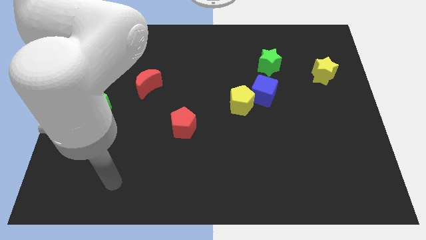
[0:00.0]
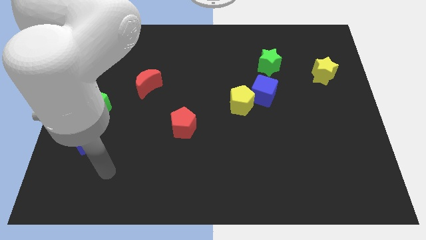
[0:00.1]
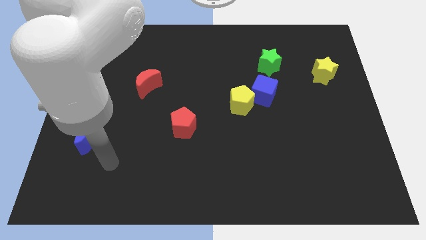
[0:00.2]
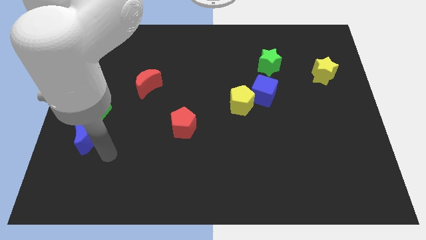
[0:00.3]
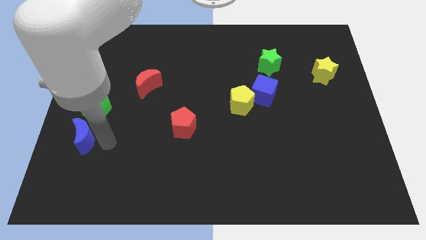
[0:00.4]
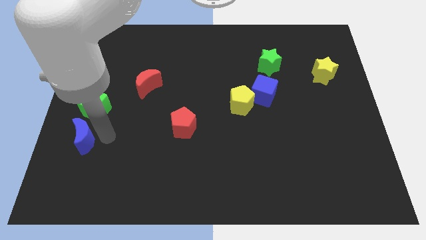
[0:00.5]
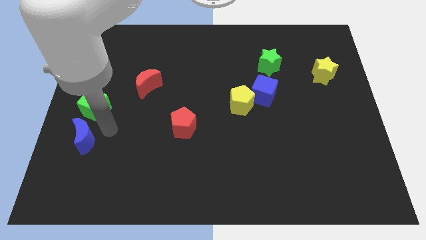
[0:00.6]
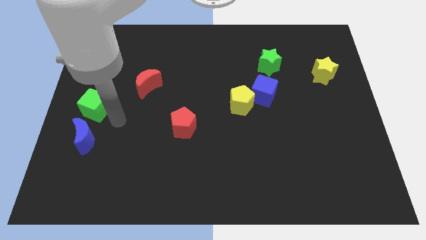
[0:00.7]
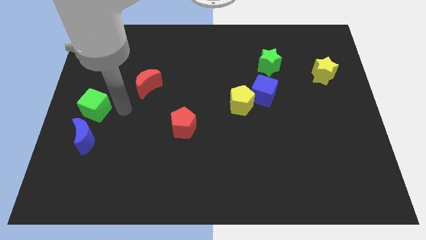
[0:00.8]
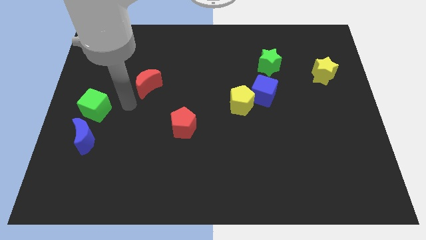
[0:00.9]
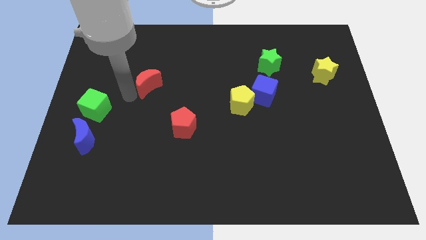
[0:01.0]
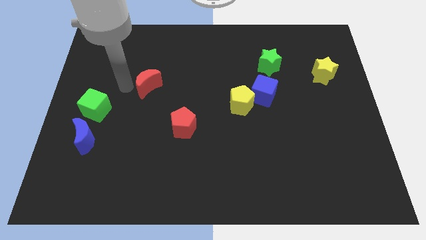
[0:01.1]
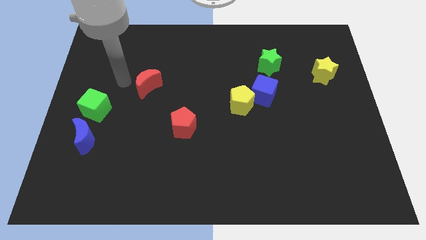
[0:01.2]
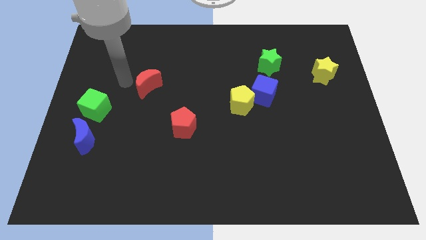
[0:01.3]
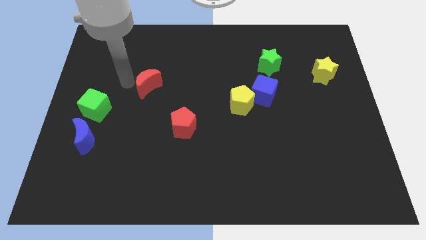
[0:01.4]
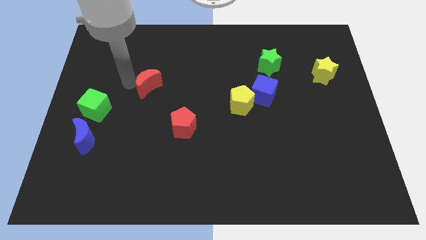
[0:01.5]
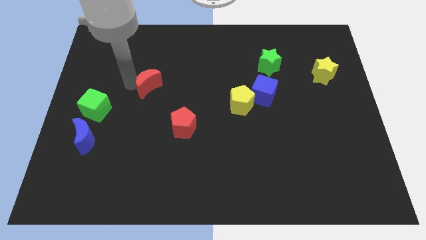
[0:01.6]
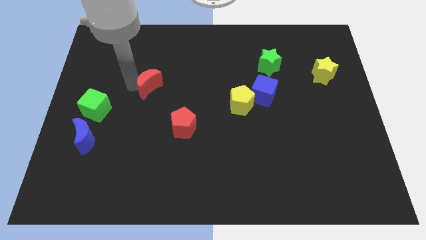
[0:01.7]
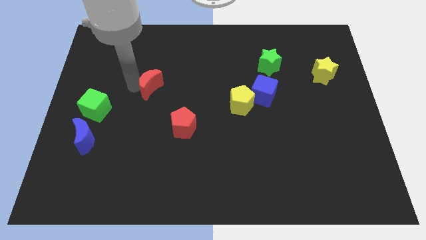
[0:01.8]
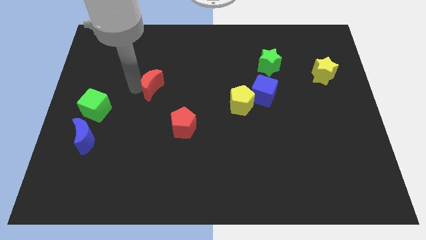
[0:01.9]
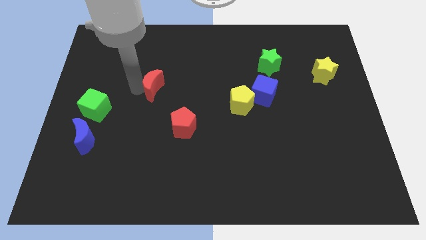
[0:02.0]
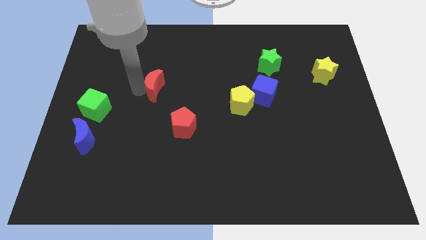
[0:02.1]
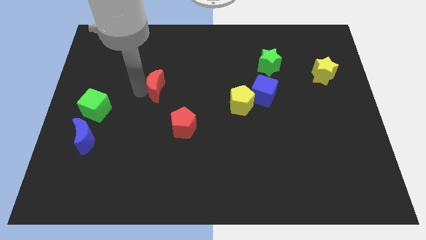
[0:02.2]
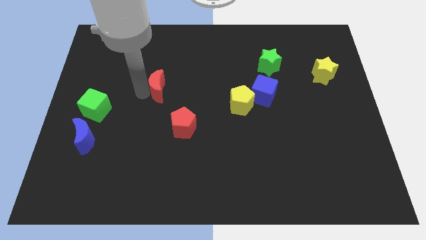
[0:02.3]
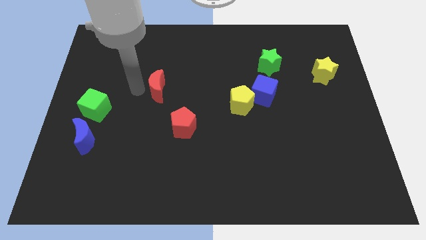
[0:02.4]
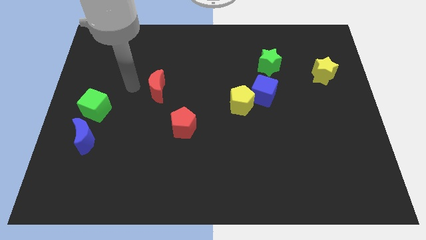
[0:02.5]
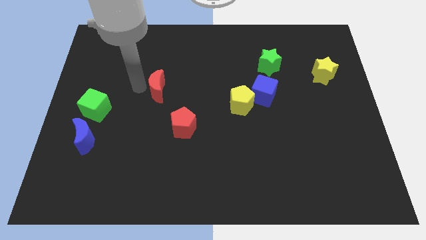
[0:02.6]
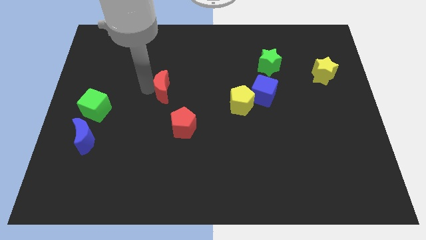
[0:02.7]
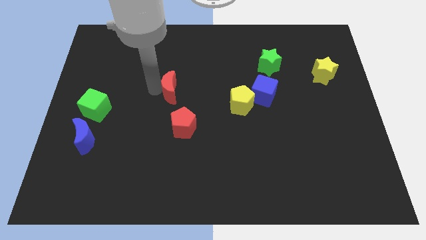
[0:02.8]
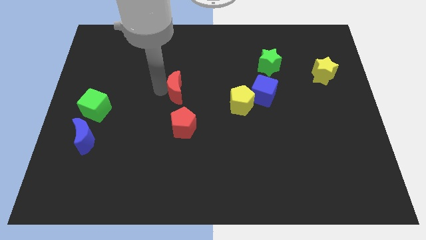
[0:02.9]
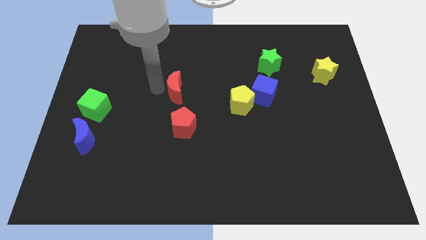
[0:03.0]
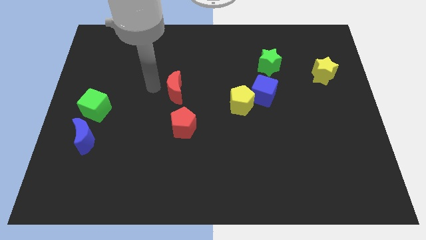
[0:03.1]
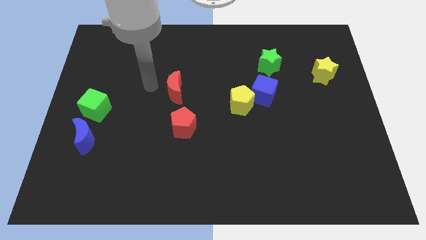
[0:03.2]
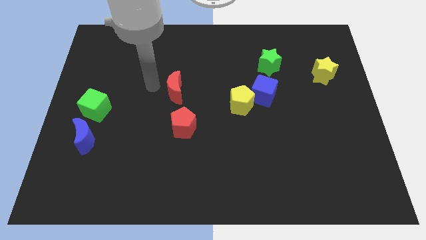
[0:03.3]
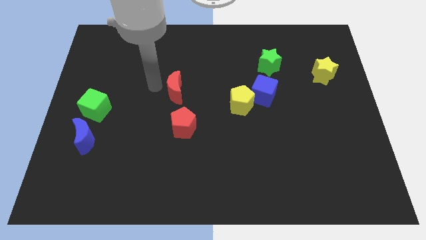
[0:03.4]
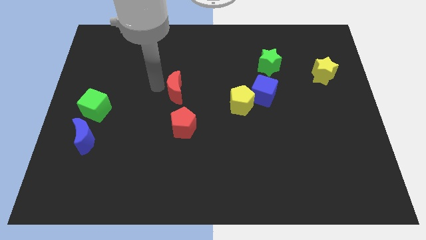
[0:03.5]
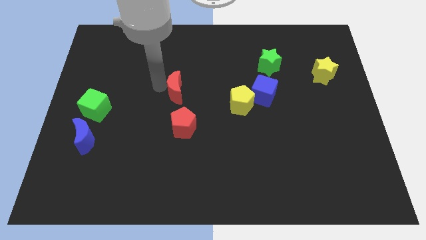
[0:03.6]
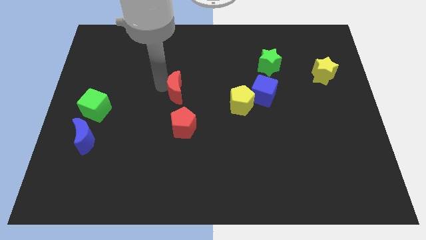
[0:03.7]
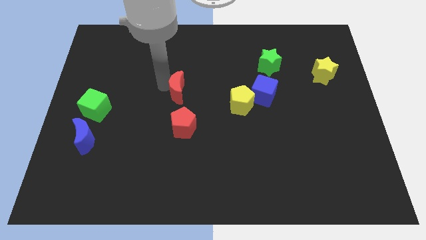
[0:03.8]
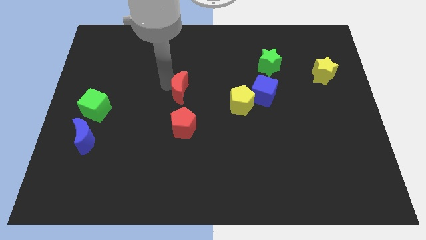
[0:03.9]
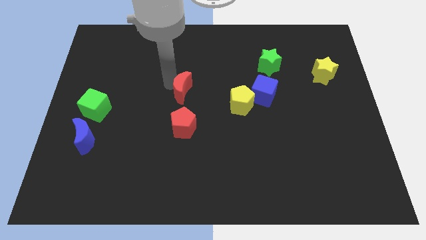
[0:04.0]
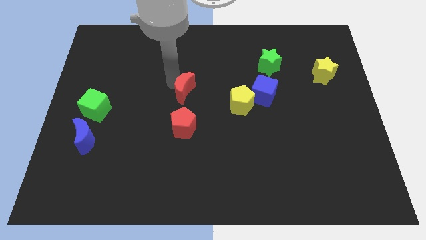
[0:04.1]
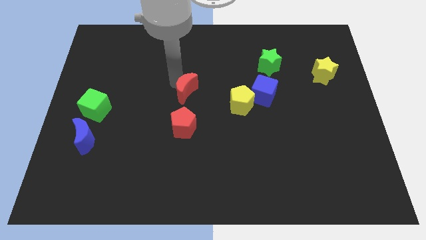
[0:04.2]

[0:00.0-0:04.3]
push the red moon somewhat downwards and to the right diagonally

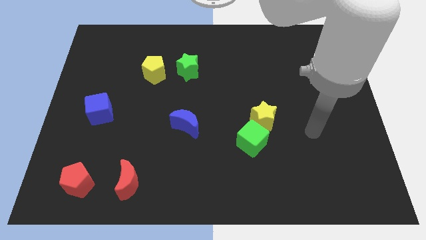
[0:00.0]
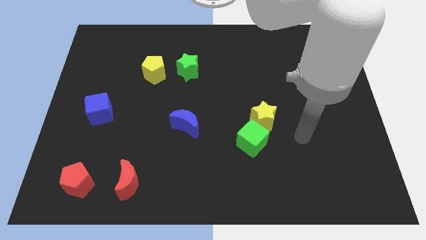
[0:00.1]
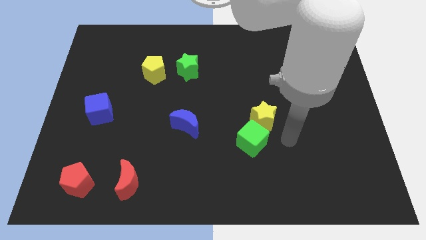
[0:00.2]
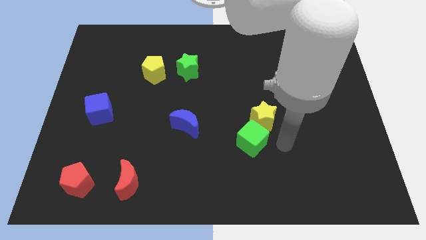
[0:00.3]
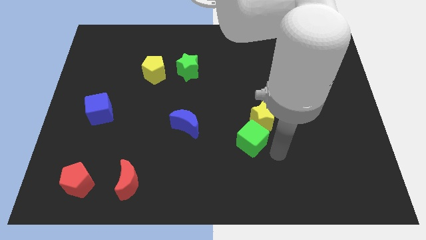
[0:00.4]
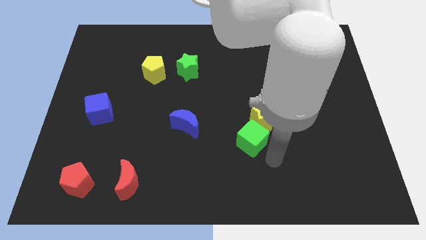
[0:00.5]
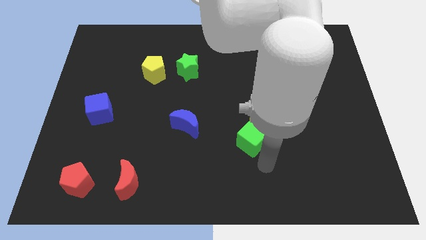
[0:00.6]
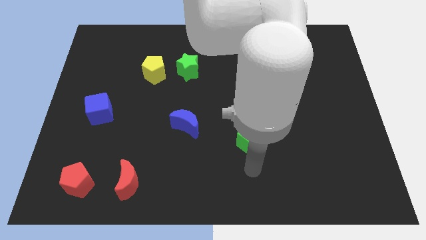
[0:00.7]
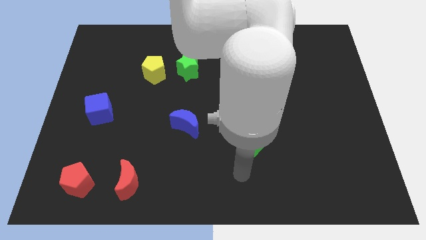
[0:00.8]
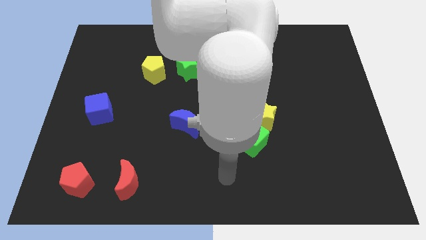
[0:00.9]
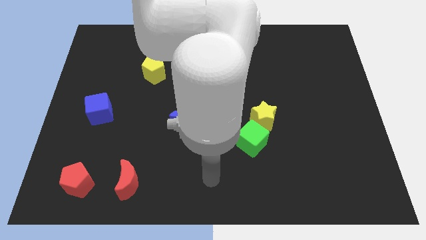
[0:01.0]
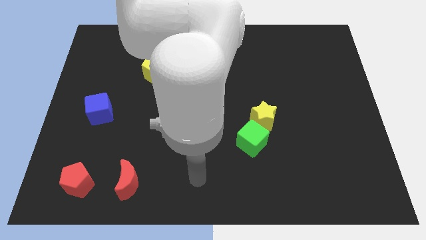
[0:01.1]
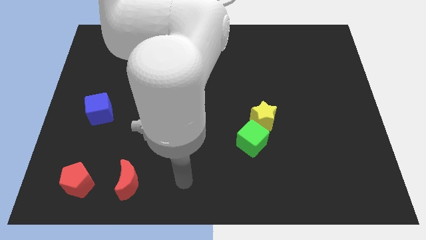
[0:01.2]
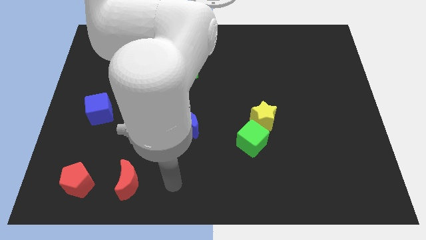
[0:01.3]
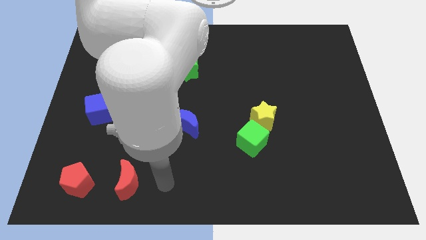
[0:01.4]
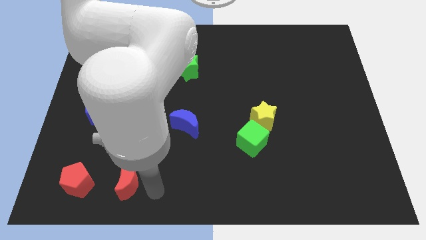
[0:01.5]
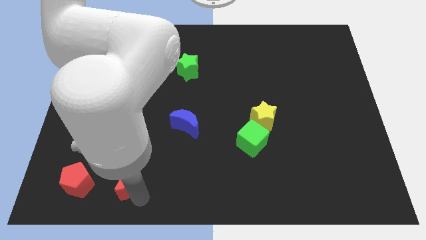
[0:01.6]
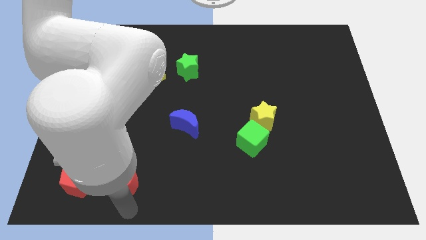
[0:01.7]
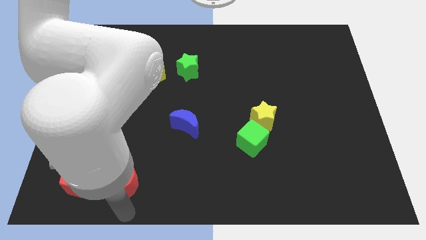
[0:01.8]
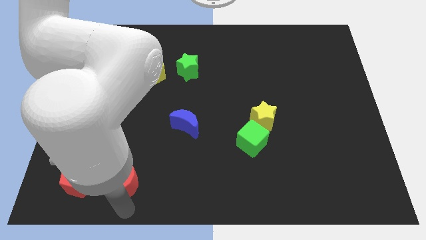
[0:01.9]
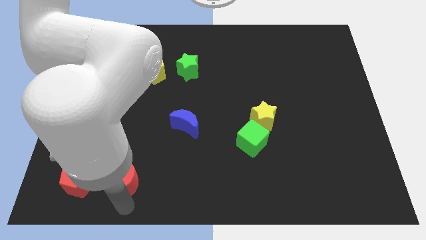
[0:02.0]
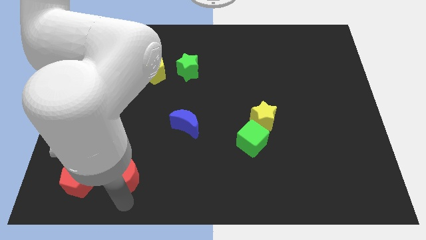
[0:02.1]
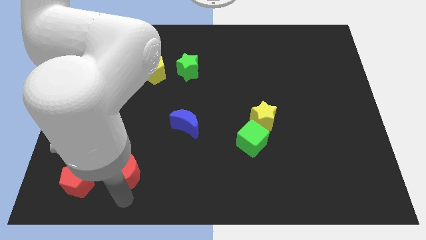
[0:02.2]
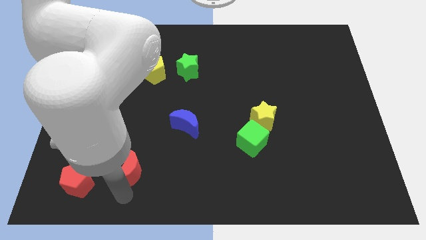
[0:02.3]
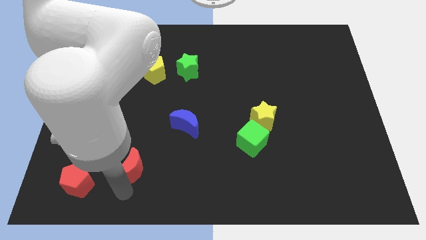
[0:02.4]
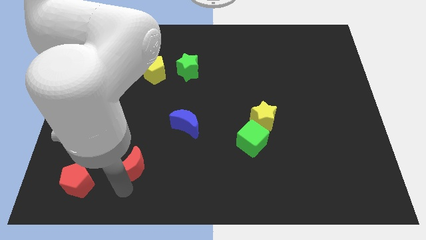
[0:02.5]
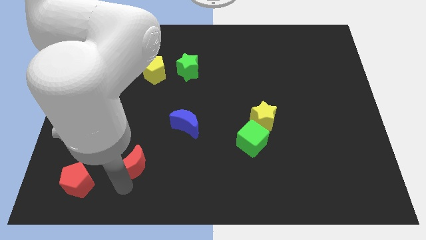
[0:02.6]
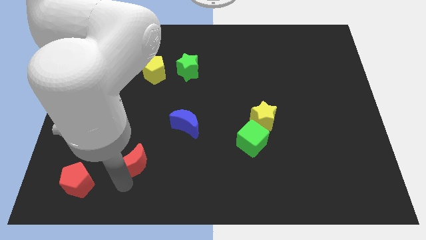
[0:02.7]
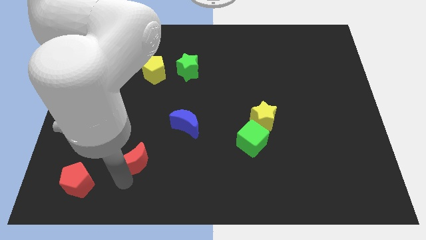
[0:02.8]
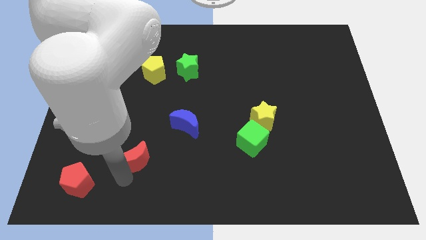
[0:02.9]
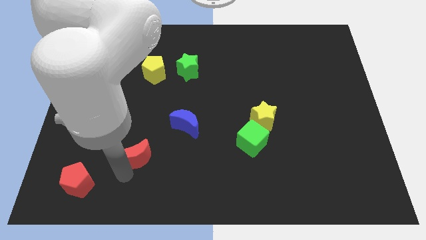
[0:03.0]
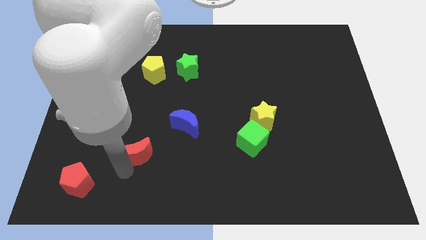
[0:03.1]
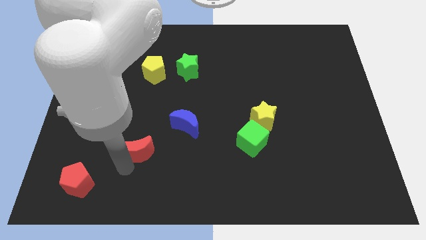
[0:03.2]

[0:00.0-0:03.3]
slide the red moon a little upwards
